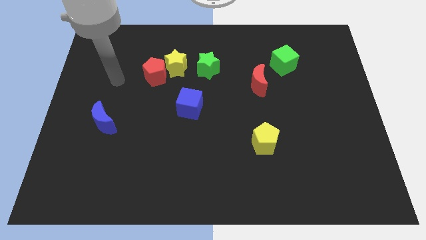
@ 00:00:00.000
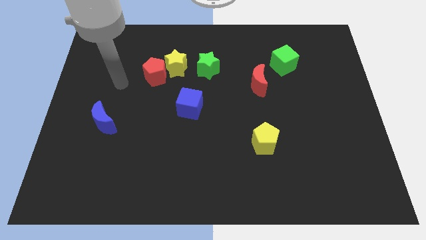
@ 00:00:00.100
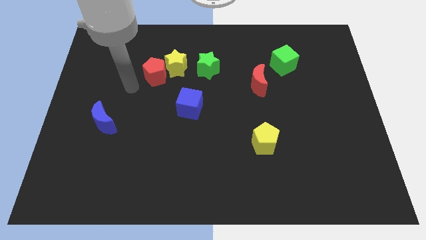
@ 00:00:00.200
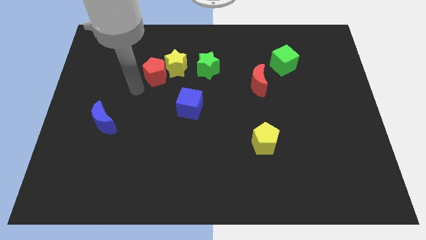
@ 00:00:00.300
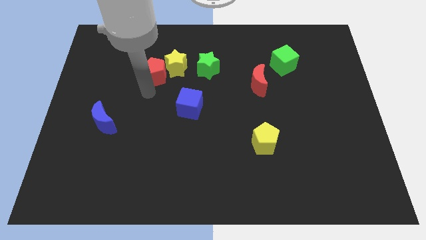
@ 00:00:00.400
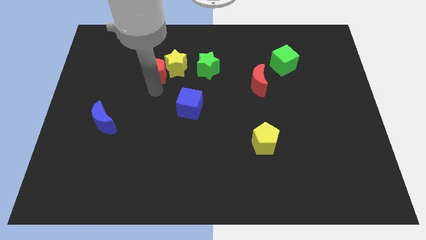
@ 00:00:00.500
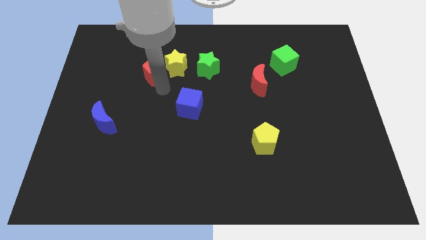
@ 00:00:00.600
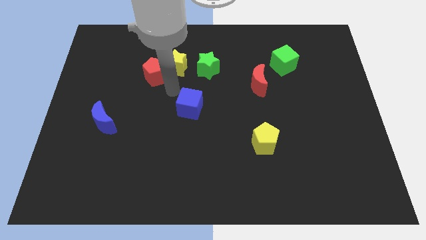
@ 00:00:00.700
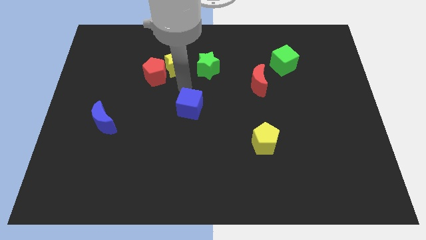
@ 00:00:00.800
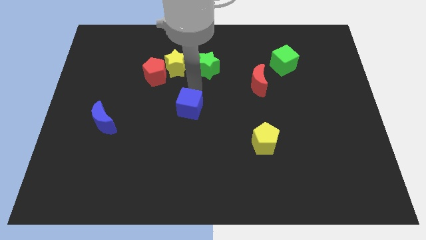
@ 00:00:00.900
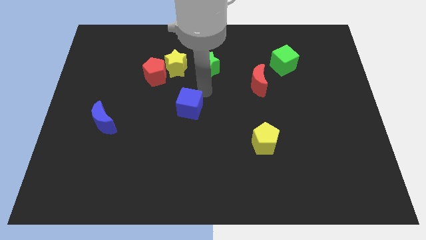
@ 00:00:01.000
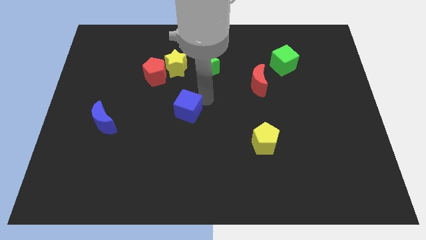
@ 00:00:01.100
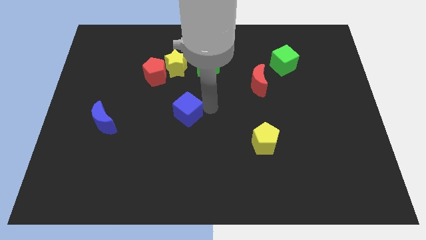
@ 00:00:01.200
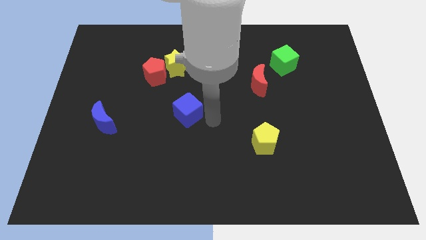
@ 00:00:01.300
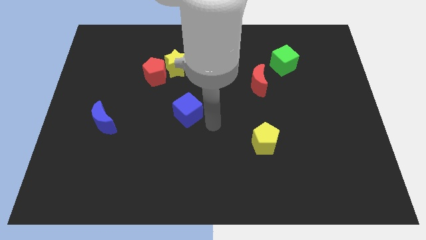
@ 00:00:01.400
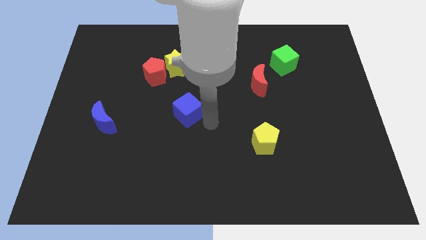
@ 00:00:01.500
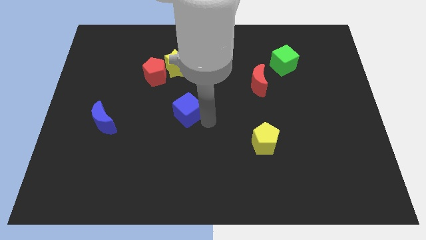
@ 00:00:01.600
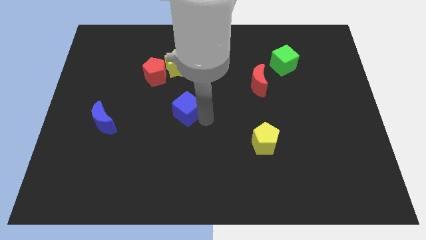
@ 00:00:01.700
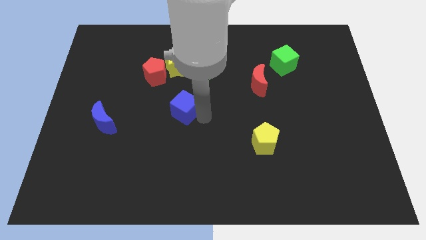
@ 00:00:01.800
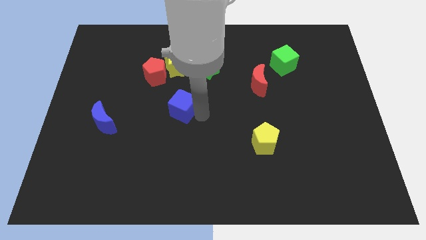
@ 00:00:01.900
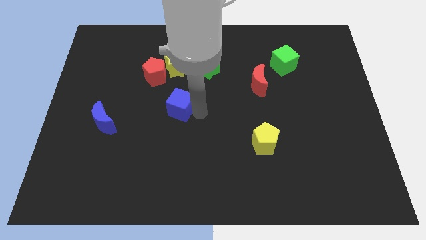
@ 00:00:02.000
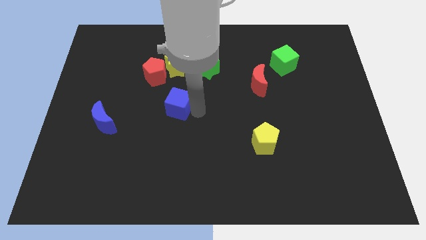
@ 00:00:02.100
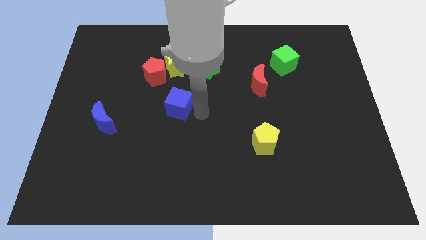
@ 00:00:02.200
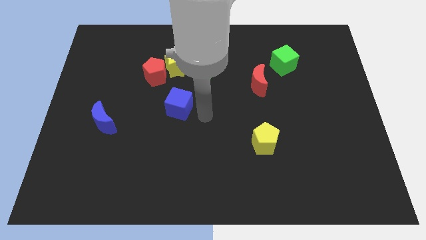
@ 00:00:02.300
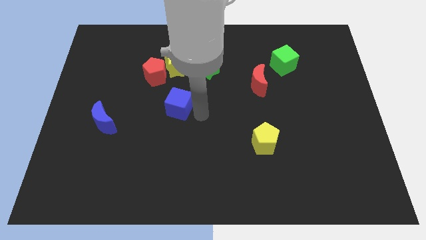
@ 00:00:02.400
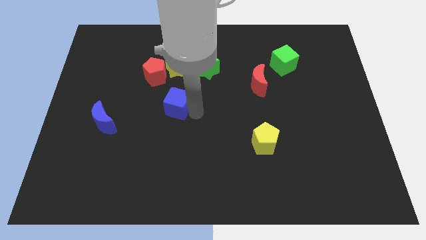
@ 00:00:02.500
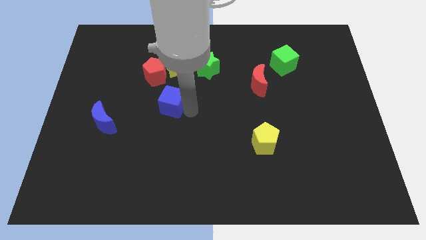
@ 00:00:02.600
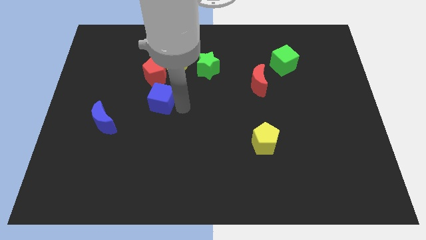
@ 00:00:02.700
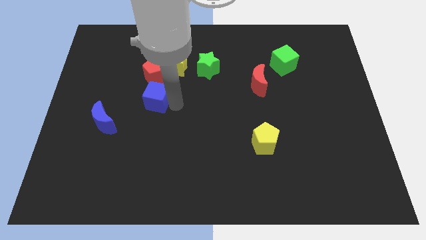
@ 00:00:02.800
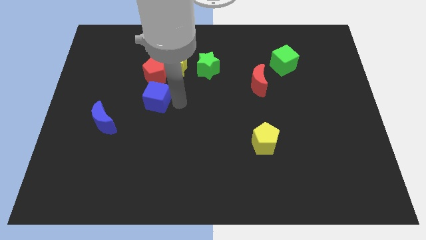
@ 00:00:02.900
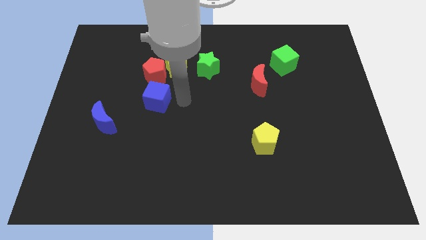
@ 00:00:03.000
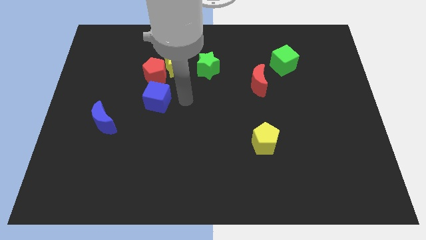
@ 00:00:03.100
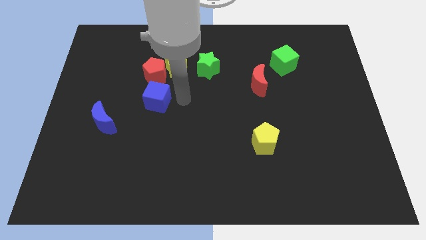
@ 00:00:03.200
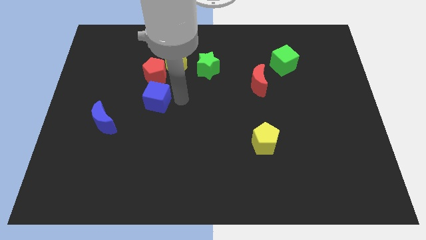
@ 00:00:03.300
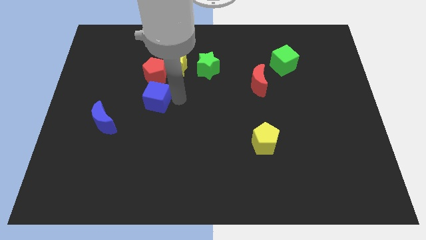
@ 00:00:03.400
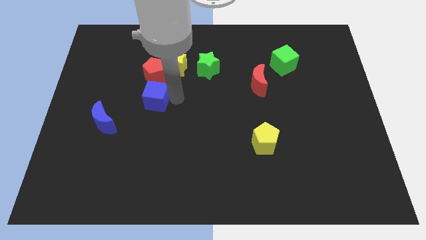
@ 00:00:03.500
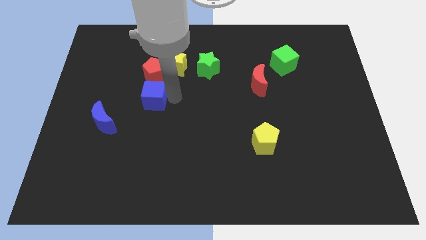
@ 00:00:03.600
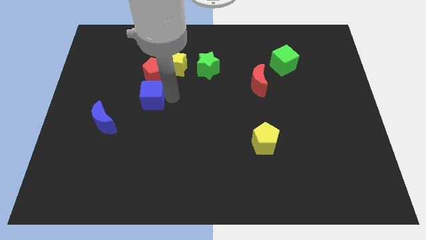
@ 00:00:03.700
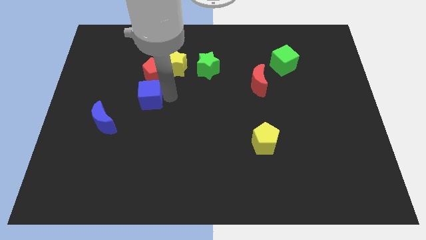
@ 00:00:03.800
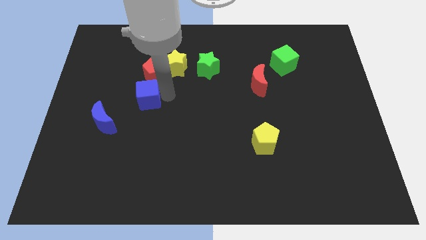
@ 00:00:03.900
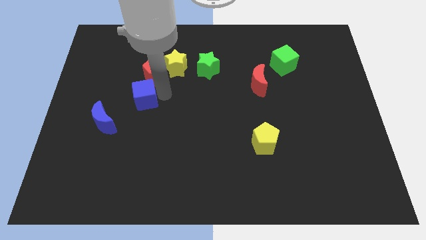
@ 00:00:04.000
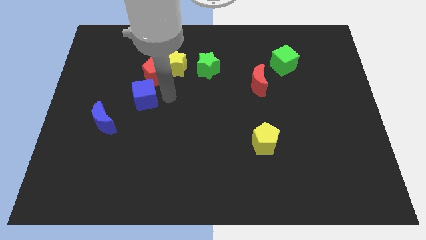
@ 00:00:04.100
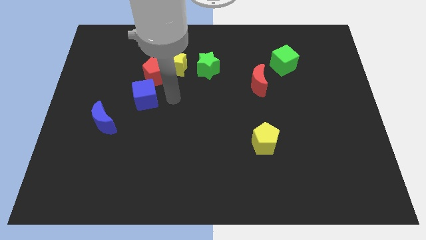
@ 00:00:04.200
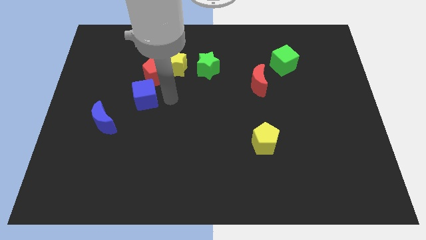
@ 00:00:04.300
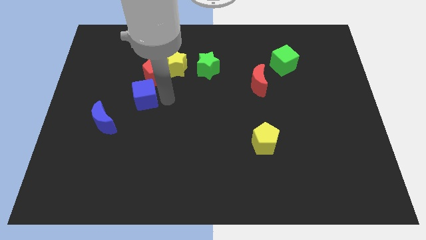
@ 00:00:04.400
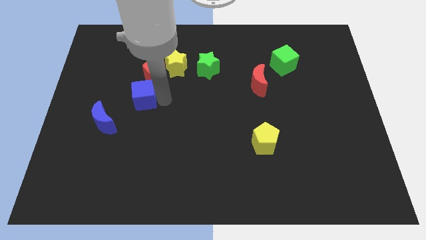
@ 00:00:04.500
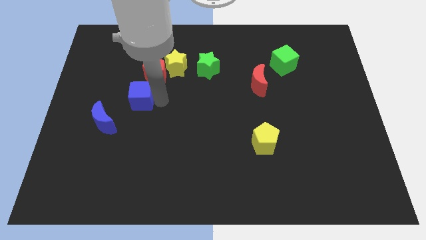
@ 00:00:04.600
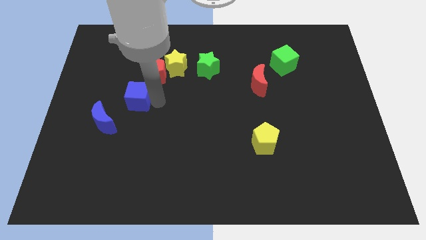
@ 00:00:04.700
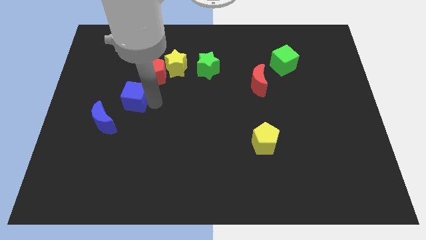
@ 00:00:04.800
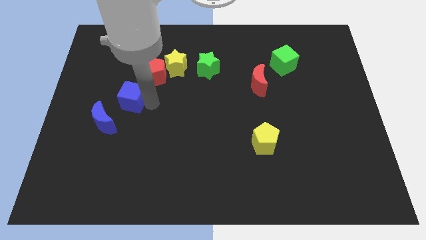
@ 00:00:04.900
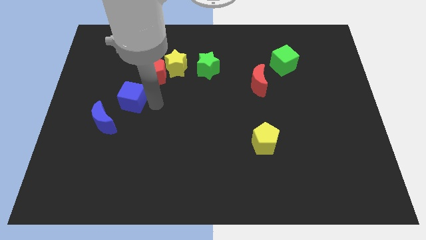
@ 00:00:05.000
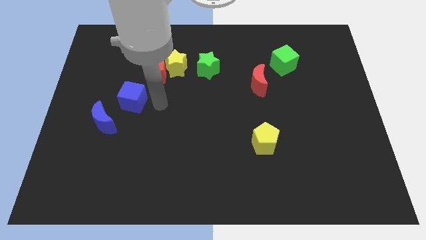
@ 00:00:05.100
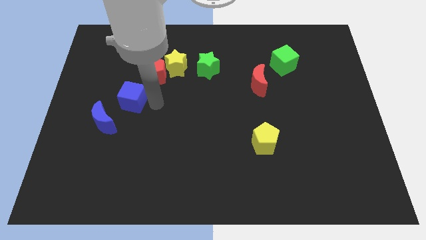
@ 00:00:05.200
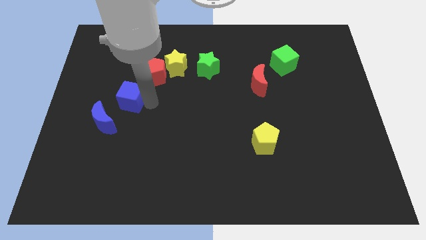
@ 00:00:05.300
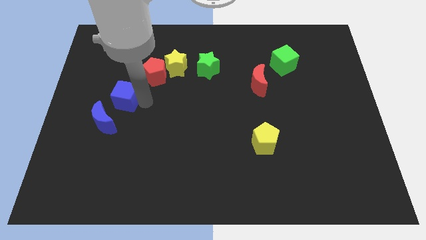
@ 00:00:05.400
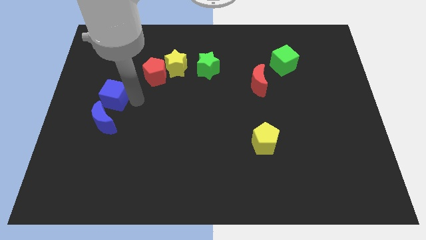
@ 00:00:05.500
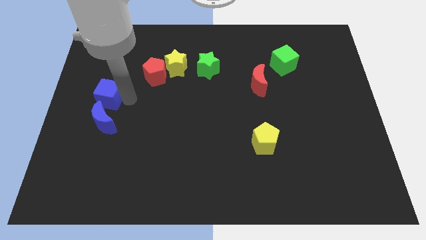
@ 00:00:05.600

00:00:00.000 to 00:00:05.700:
put the blue cube to the left side

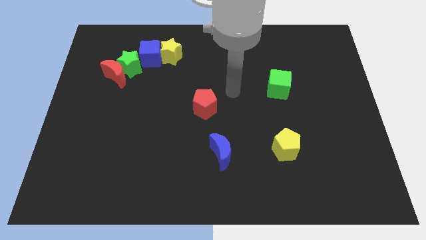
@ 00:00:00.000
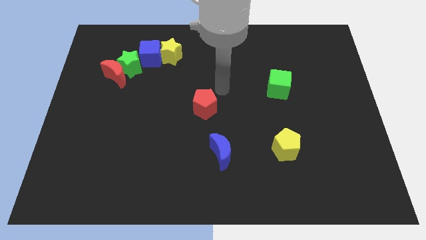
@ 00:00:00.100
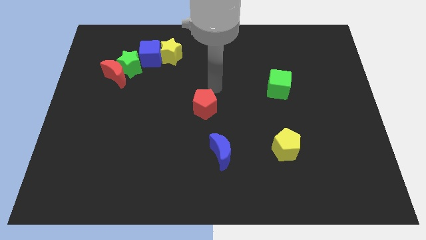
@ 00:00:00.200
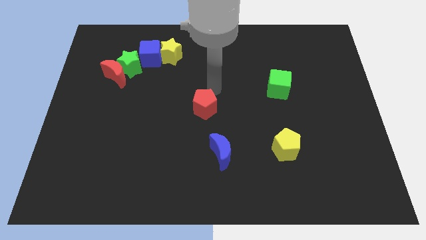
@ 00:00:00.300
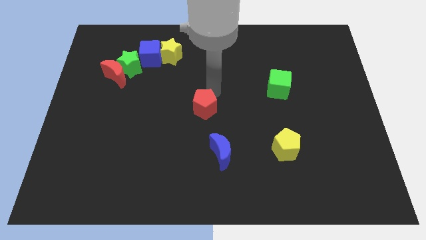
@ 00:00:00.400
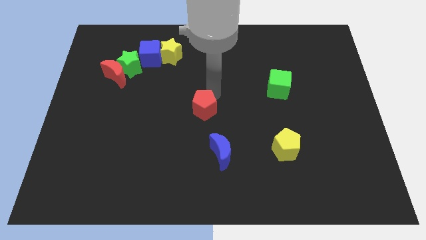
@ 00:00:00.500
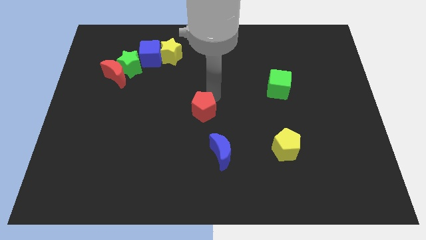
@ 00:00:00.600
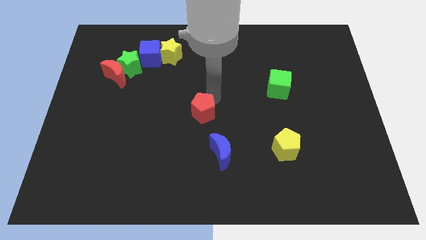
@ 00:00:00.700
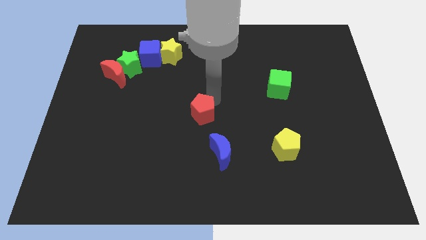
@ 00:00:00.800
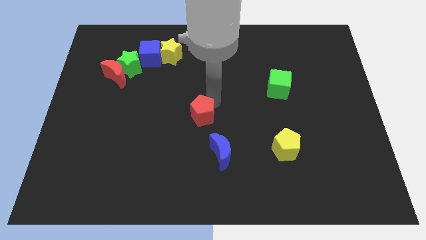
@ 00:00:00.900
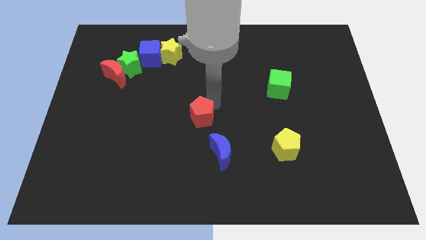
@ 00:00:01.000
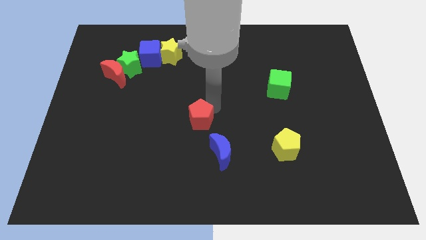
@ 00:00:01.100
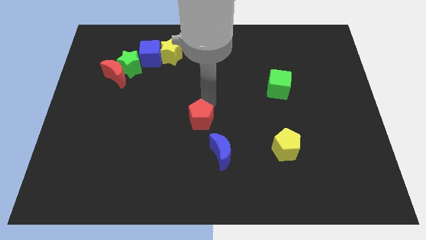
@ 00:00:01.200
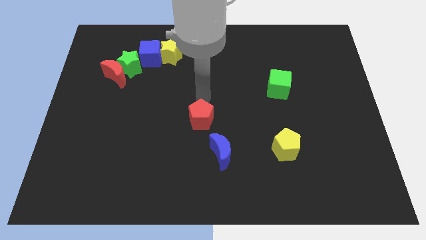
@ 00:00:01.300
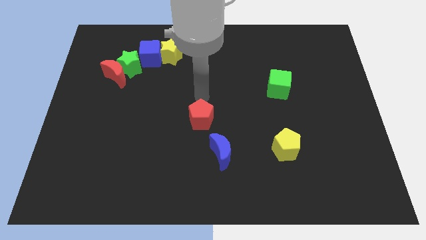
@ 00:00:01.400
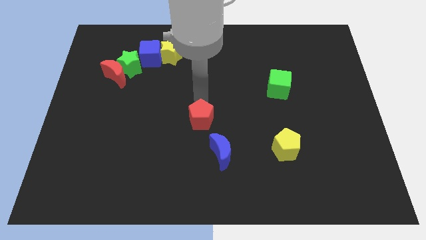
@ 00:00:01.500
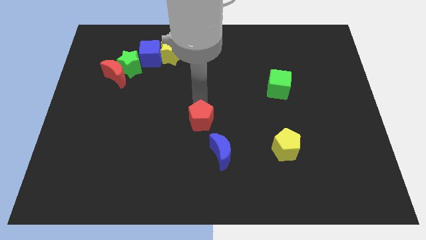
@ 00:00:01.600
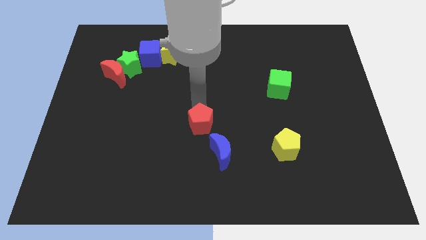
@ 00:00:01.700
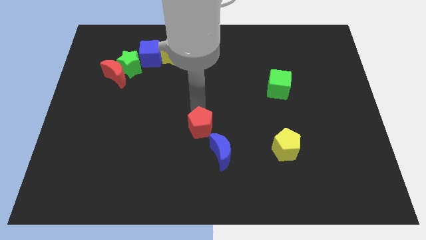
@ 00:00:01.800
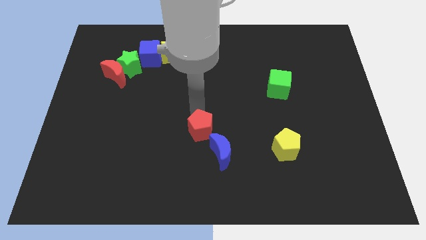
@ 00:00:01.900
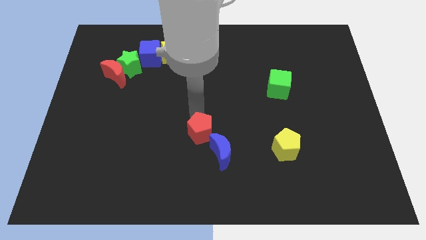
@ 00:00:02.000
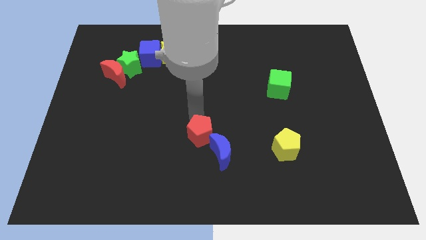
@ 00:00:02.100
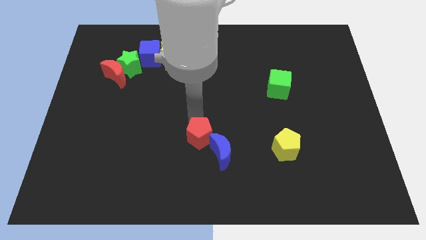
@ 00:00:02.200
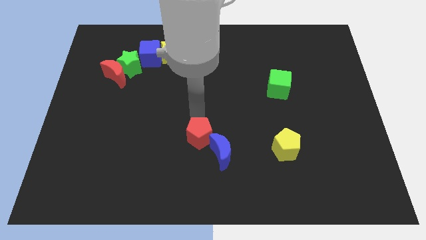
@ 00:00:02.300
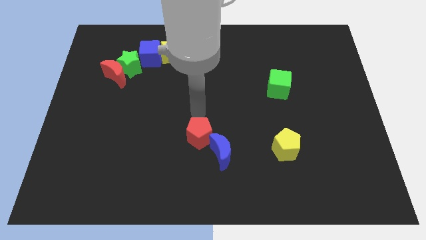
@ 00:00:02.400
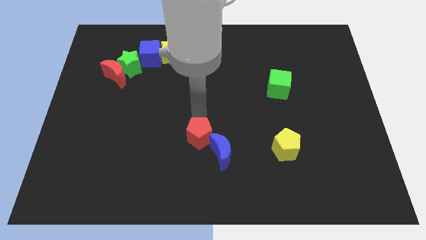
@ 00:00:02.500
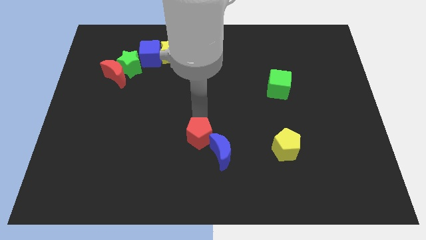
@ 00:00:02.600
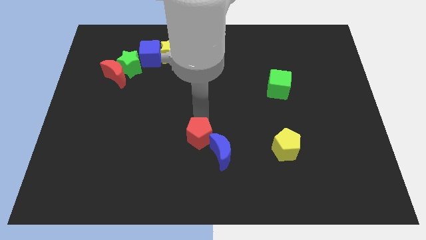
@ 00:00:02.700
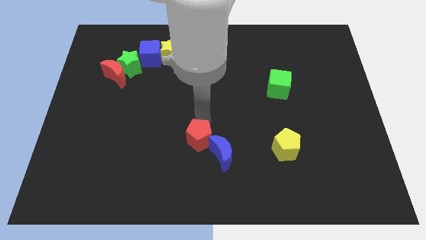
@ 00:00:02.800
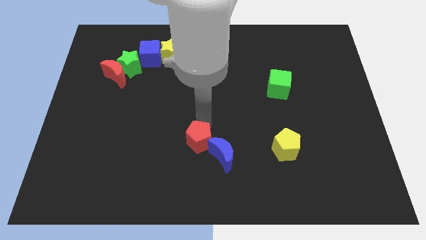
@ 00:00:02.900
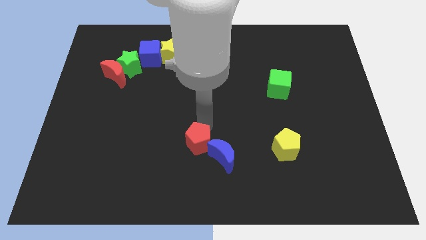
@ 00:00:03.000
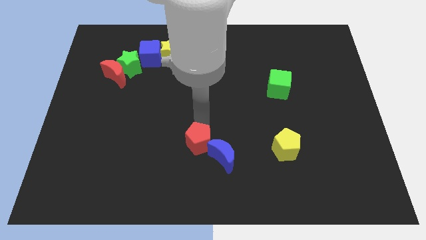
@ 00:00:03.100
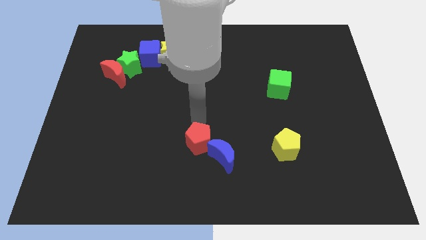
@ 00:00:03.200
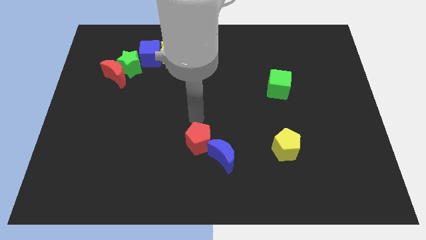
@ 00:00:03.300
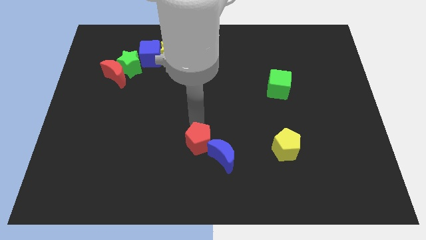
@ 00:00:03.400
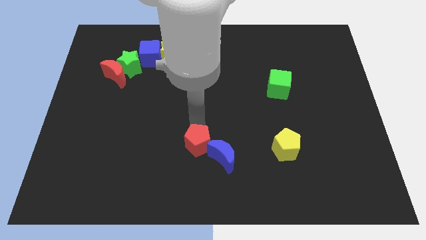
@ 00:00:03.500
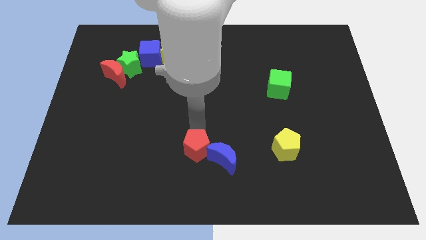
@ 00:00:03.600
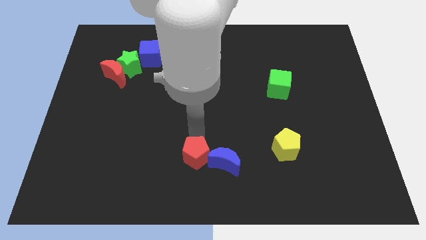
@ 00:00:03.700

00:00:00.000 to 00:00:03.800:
move the red pentagon to the bottom
